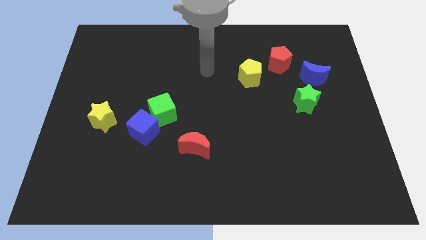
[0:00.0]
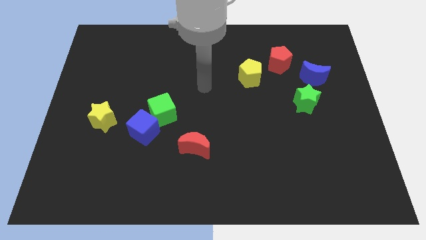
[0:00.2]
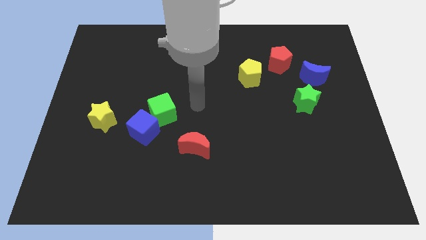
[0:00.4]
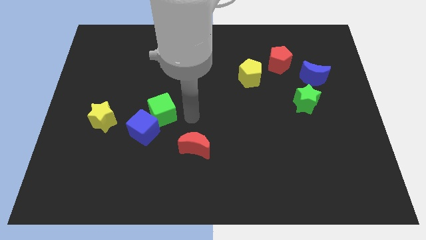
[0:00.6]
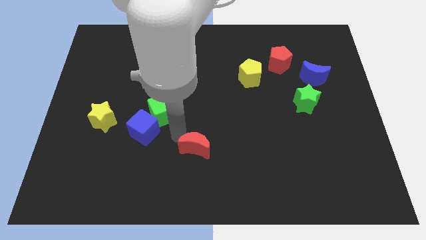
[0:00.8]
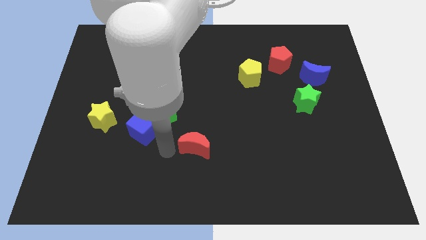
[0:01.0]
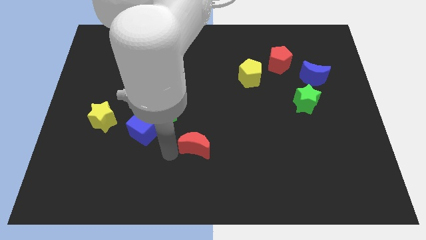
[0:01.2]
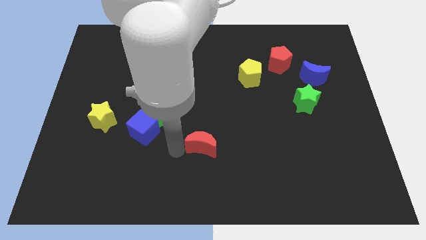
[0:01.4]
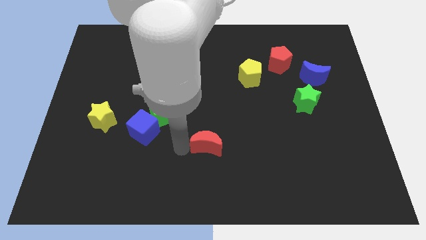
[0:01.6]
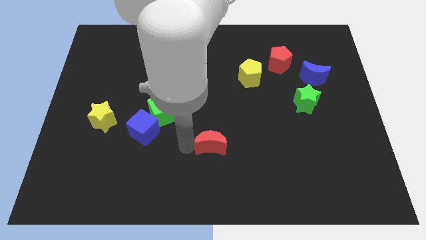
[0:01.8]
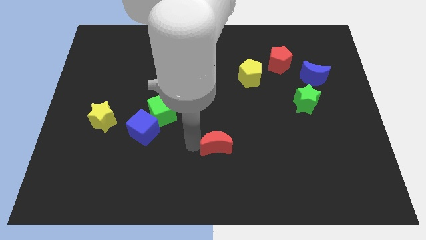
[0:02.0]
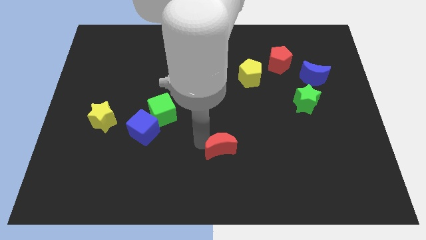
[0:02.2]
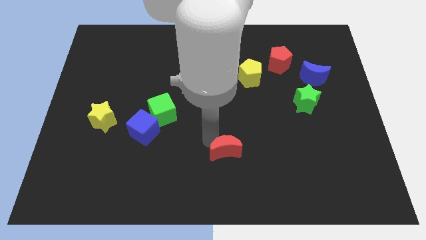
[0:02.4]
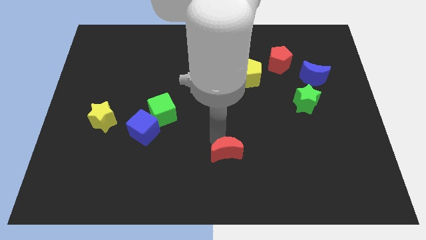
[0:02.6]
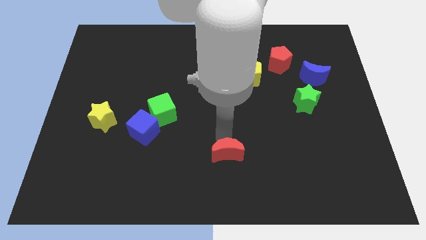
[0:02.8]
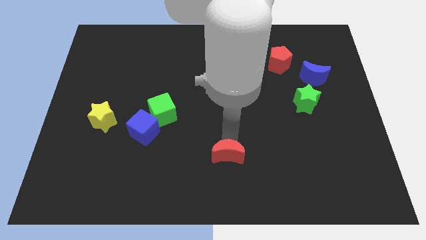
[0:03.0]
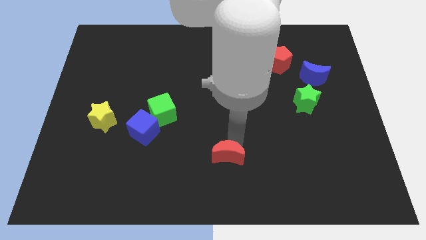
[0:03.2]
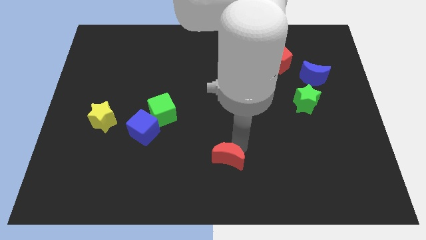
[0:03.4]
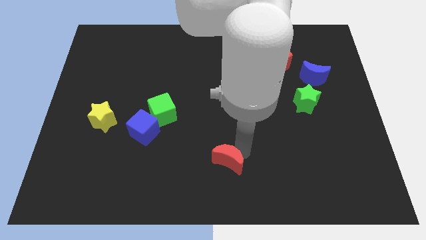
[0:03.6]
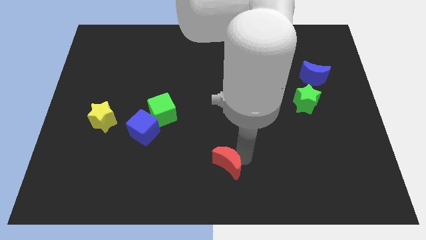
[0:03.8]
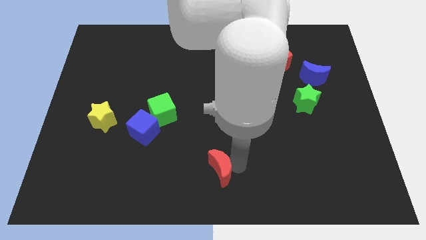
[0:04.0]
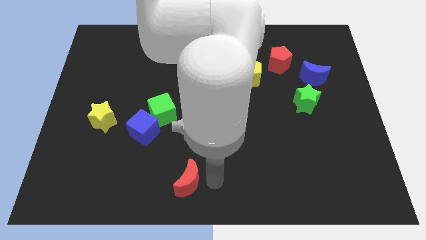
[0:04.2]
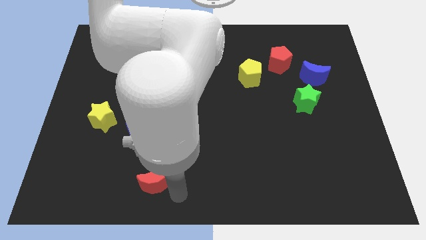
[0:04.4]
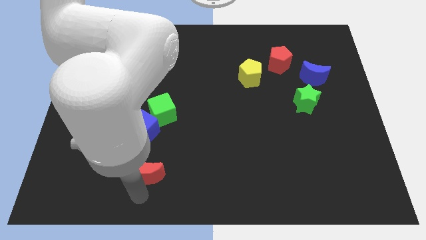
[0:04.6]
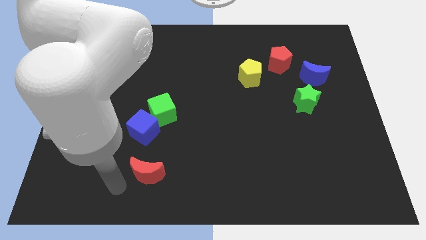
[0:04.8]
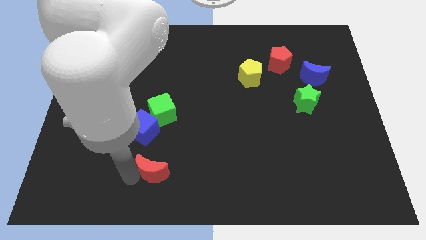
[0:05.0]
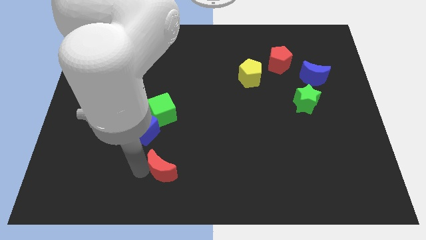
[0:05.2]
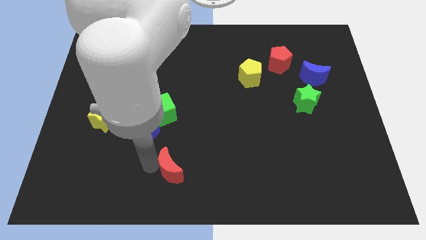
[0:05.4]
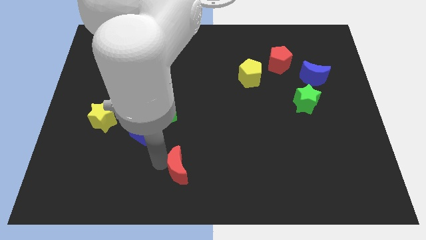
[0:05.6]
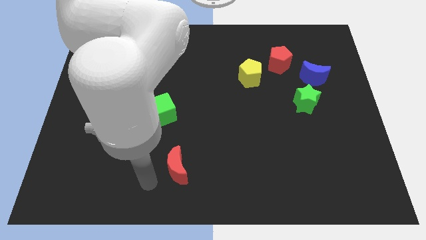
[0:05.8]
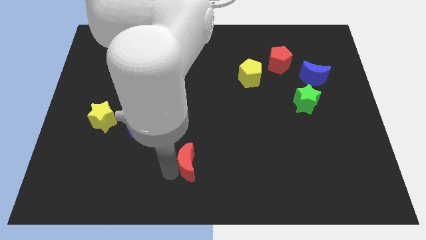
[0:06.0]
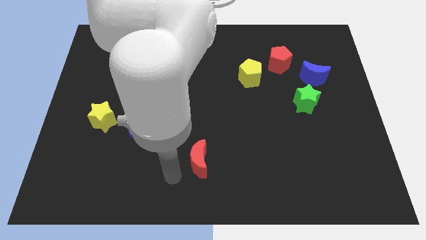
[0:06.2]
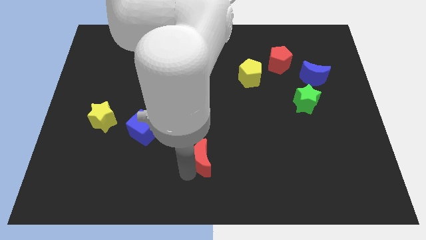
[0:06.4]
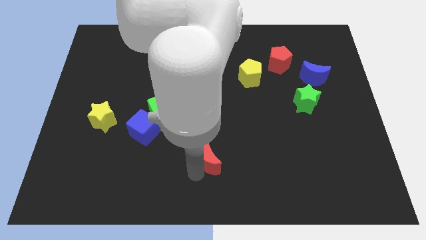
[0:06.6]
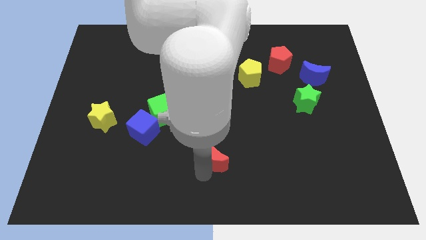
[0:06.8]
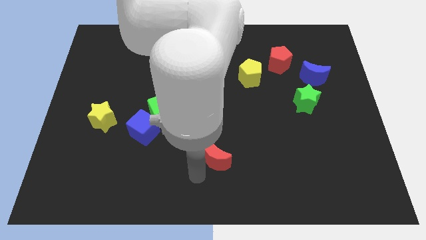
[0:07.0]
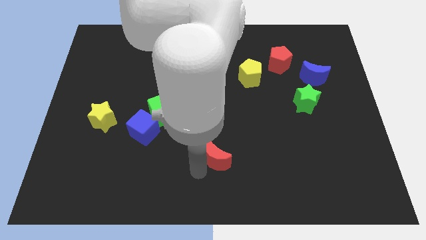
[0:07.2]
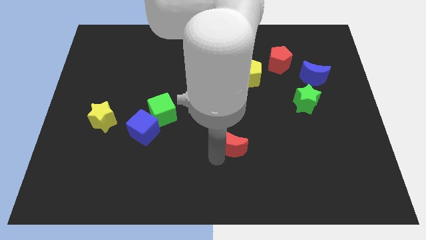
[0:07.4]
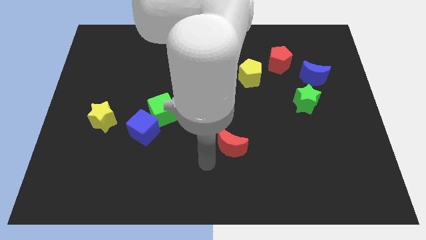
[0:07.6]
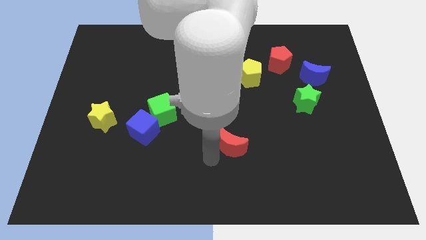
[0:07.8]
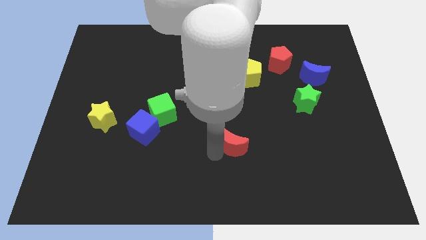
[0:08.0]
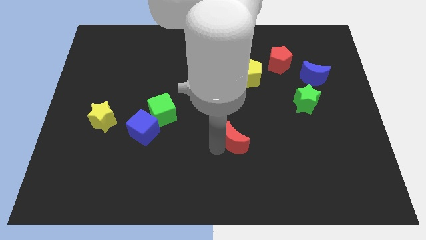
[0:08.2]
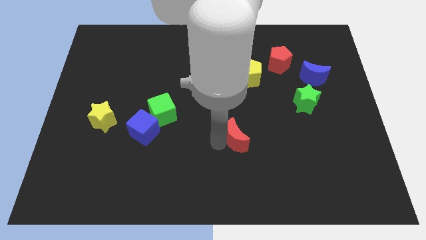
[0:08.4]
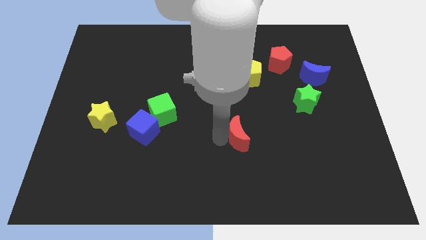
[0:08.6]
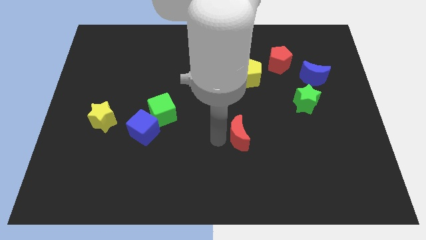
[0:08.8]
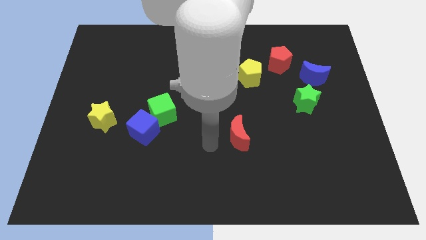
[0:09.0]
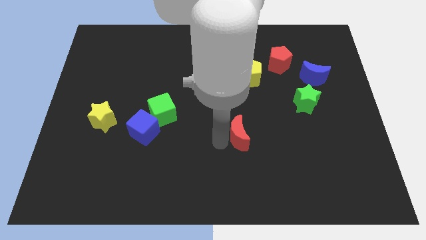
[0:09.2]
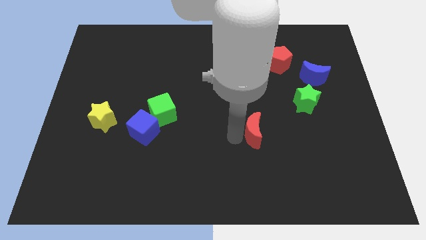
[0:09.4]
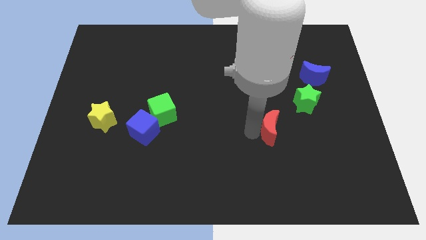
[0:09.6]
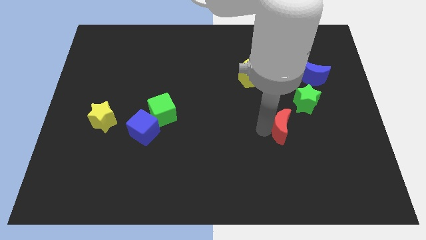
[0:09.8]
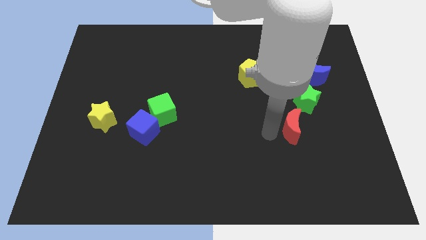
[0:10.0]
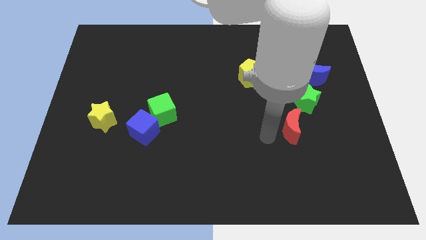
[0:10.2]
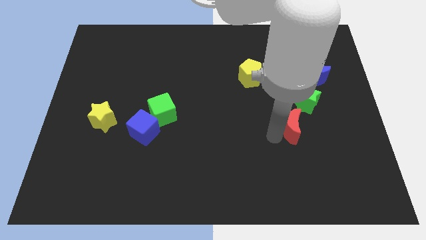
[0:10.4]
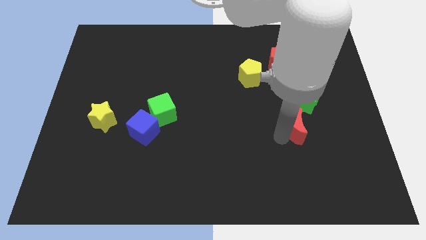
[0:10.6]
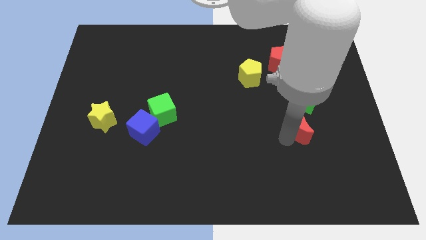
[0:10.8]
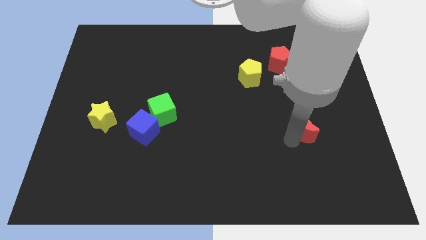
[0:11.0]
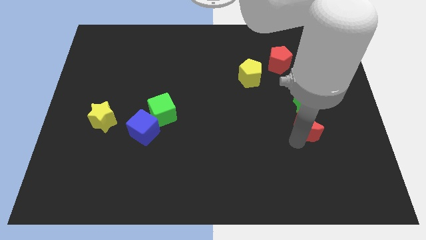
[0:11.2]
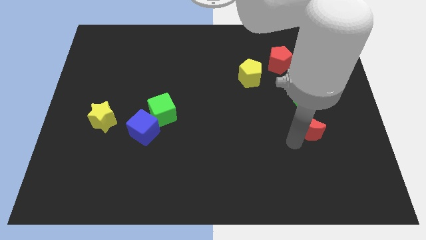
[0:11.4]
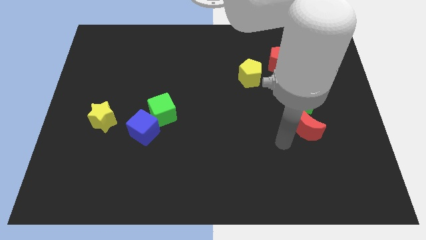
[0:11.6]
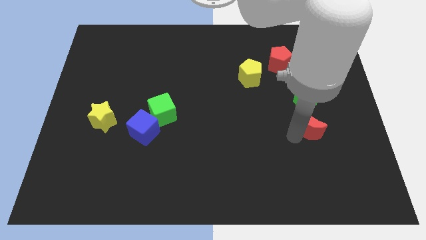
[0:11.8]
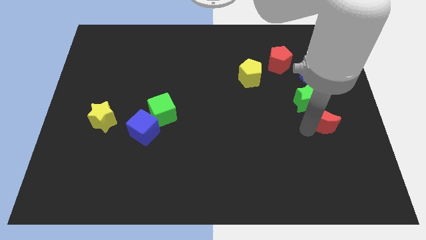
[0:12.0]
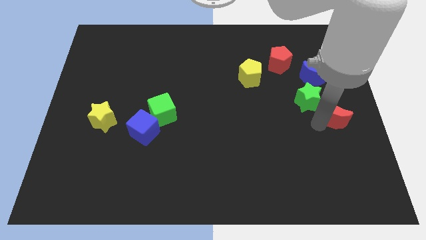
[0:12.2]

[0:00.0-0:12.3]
move the red moon to the right side of the board

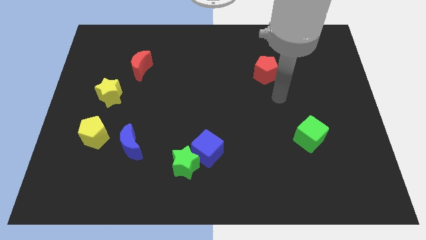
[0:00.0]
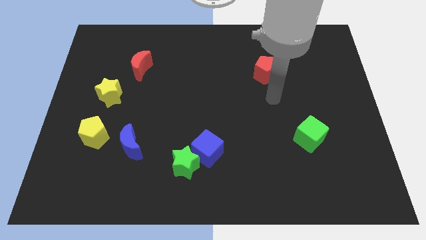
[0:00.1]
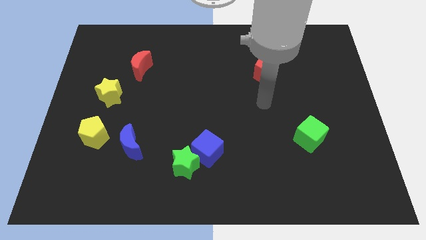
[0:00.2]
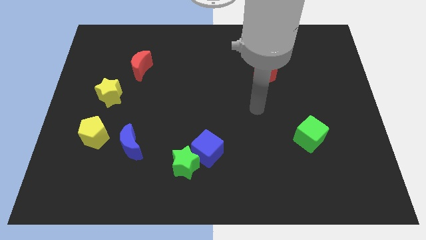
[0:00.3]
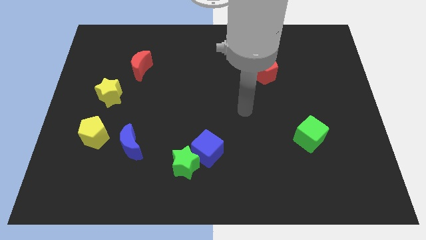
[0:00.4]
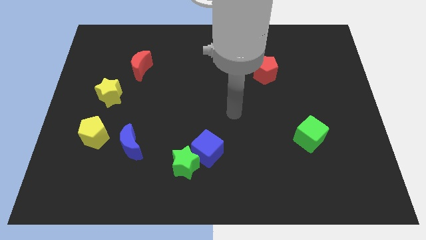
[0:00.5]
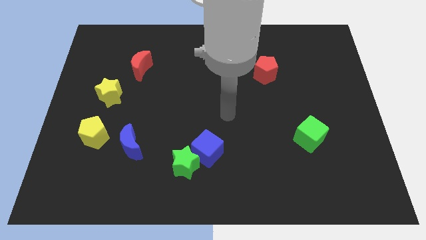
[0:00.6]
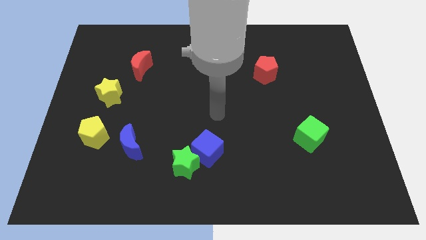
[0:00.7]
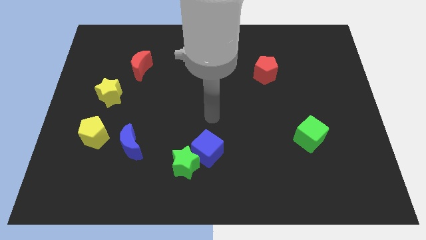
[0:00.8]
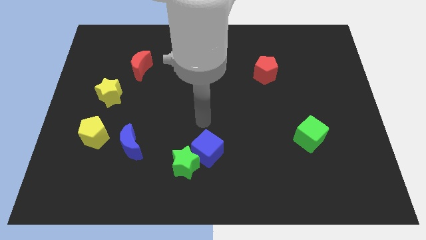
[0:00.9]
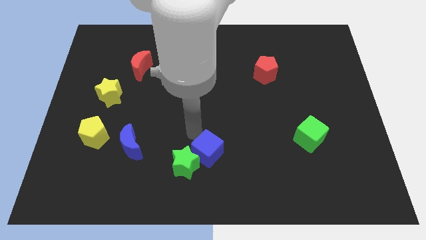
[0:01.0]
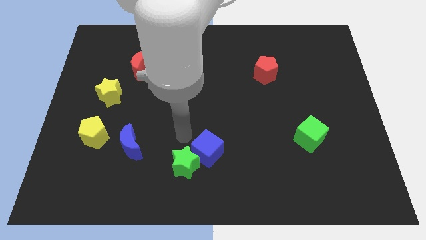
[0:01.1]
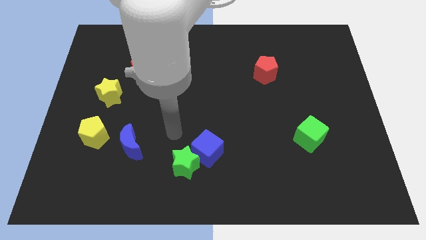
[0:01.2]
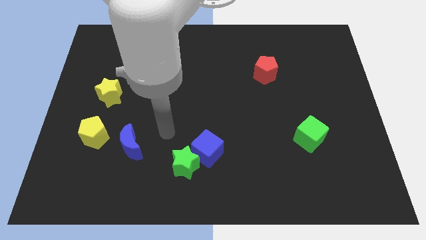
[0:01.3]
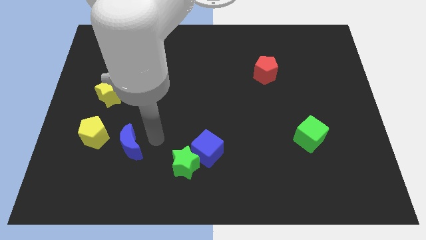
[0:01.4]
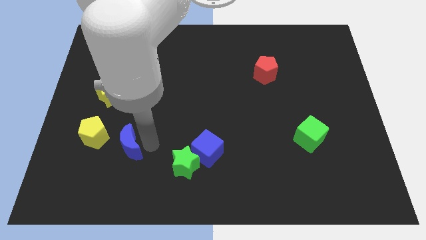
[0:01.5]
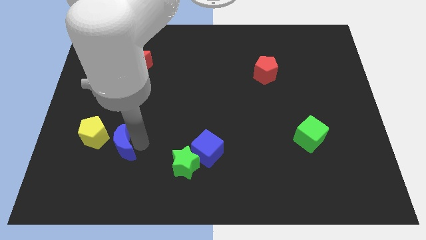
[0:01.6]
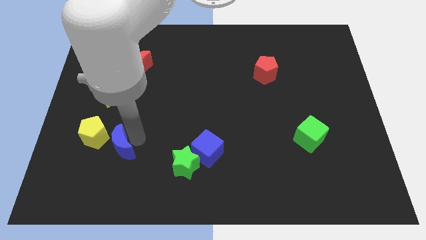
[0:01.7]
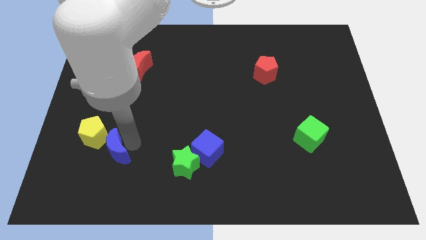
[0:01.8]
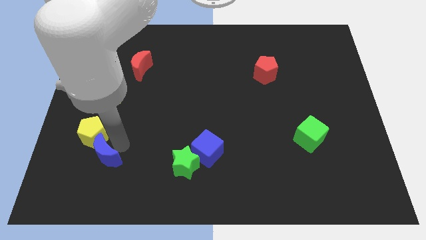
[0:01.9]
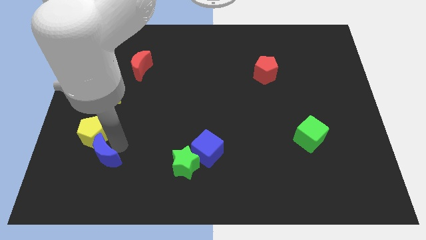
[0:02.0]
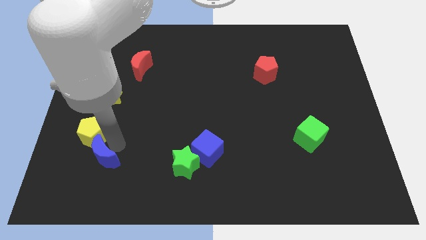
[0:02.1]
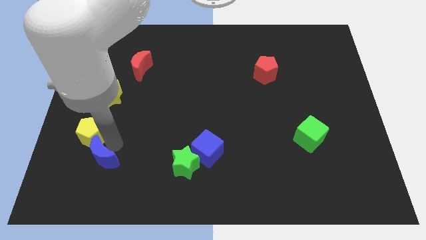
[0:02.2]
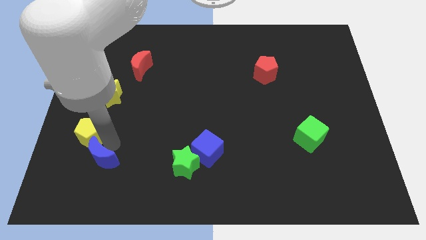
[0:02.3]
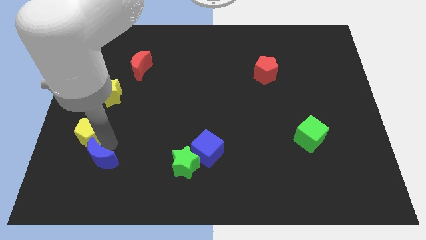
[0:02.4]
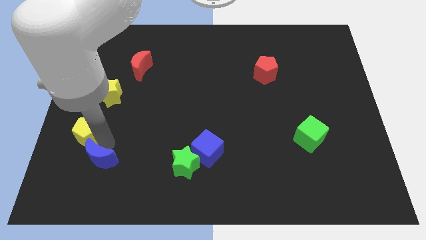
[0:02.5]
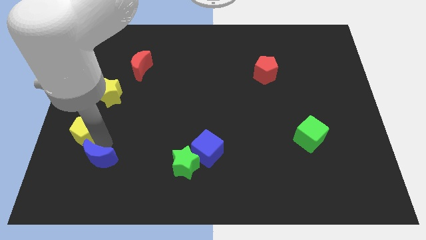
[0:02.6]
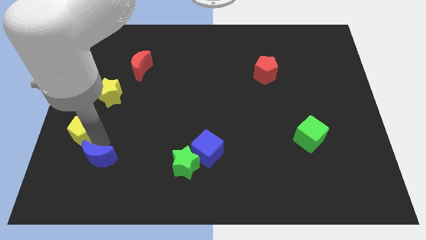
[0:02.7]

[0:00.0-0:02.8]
move the yellow pentagon to the left side of the board
